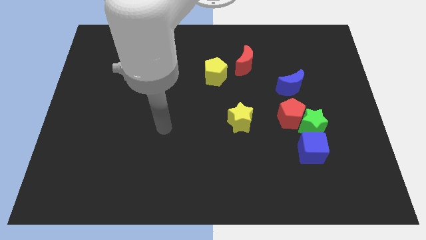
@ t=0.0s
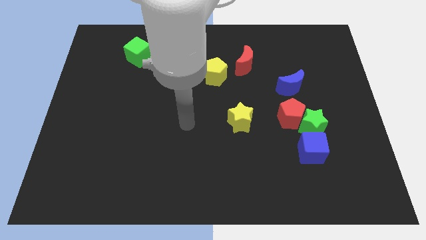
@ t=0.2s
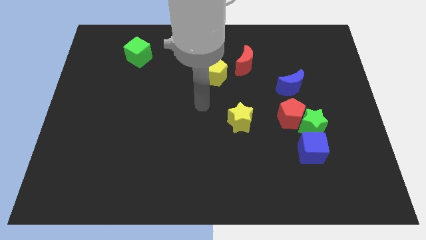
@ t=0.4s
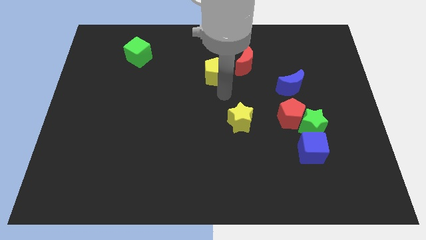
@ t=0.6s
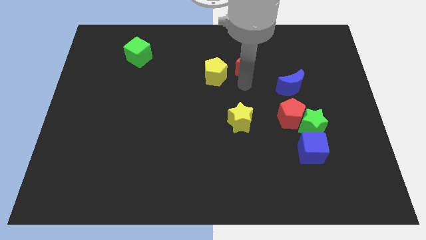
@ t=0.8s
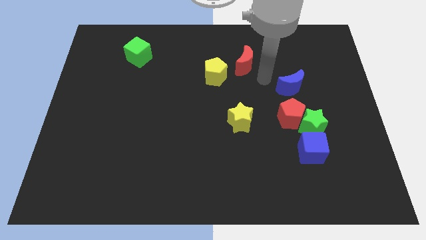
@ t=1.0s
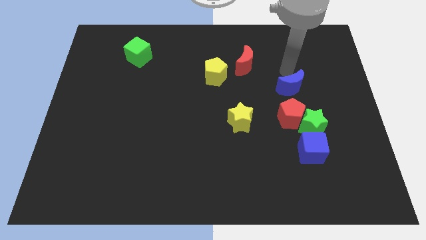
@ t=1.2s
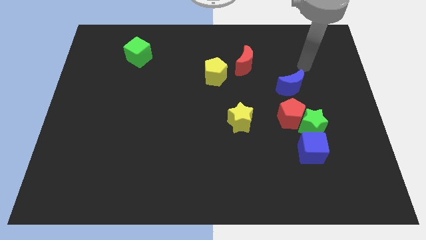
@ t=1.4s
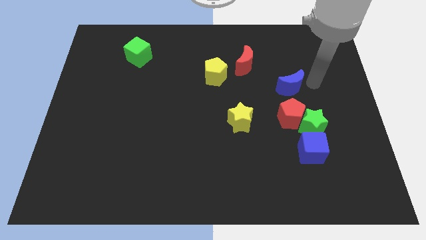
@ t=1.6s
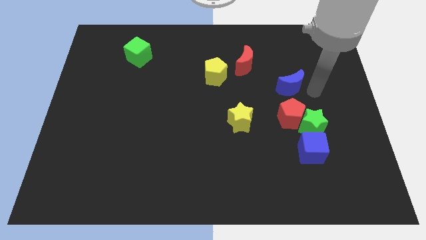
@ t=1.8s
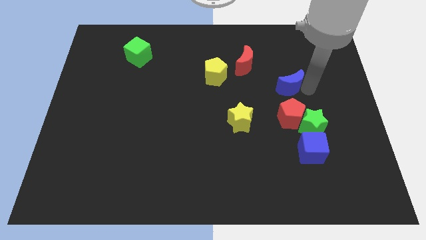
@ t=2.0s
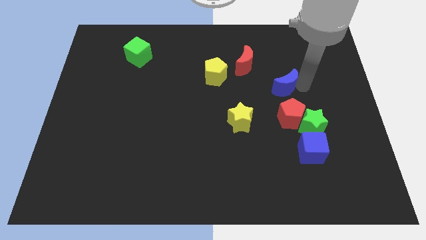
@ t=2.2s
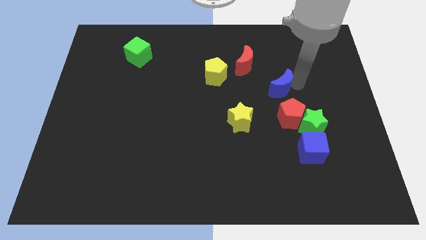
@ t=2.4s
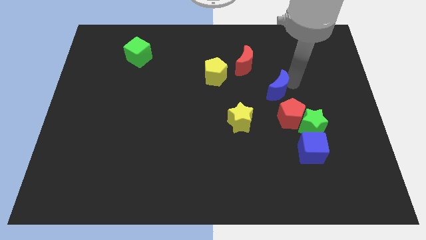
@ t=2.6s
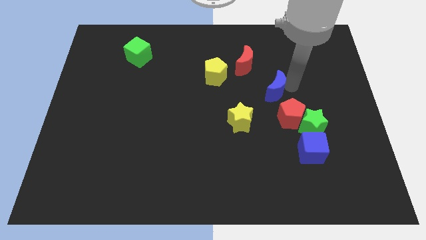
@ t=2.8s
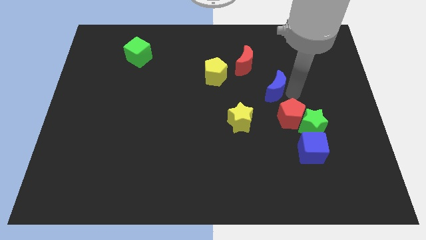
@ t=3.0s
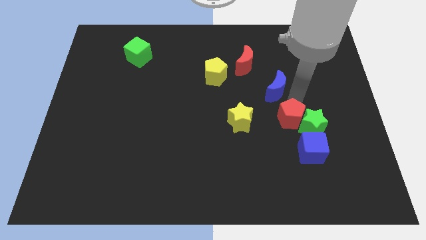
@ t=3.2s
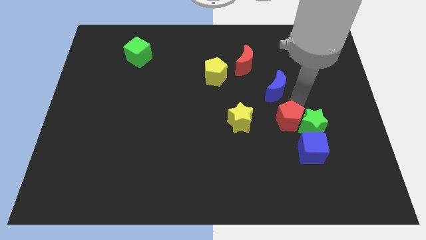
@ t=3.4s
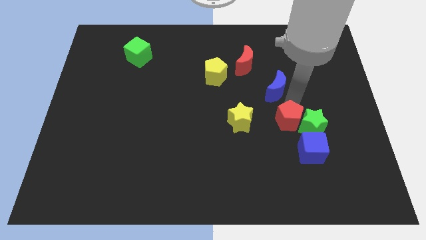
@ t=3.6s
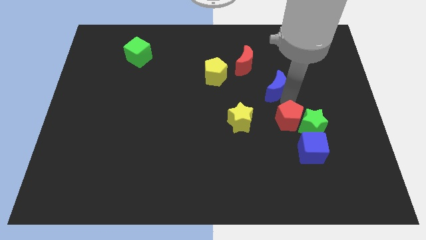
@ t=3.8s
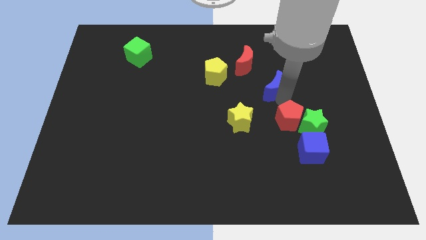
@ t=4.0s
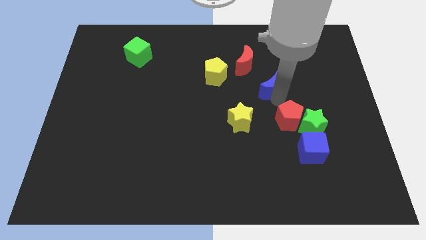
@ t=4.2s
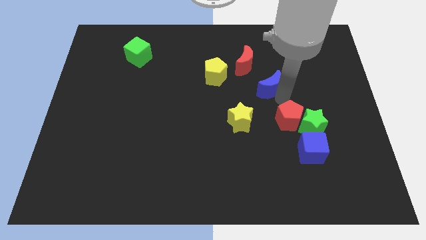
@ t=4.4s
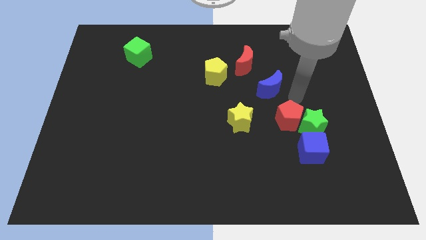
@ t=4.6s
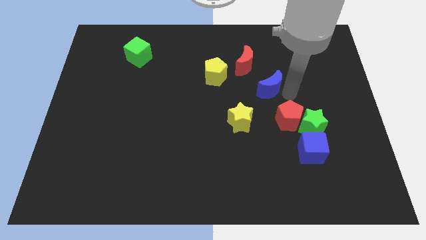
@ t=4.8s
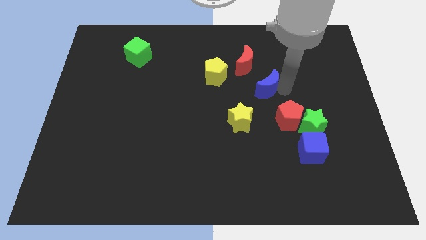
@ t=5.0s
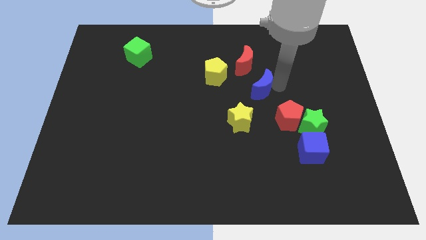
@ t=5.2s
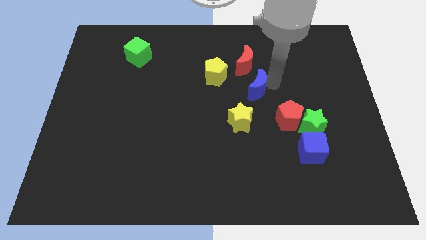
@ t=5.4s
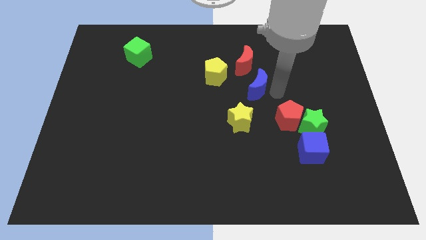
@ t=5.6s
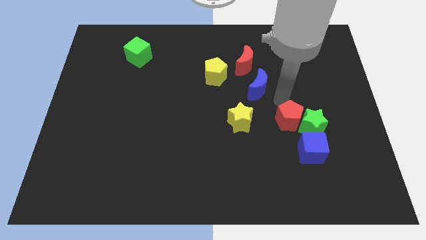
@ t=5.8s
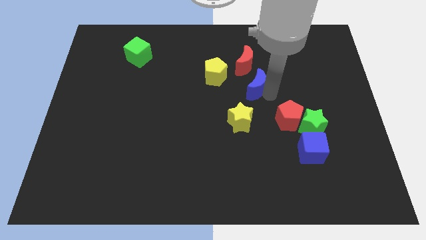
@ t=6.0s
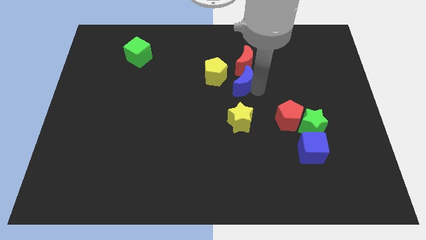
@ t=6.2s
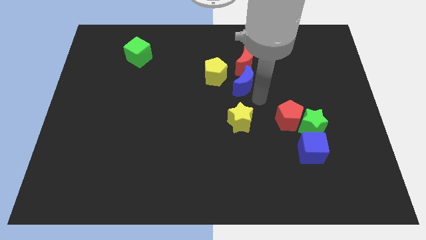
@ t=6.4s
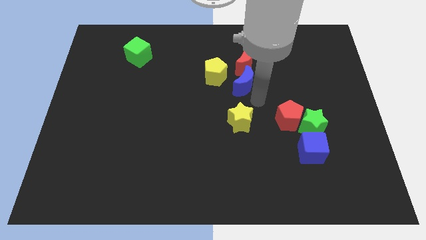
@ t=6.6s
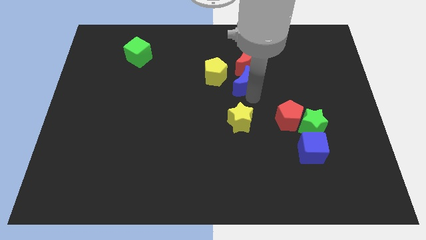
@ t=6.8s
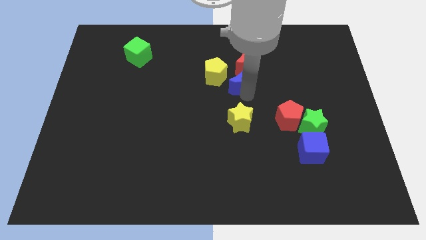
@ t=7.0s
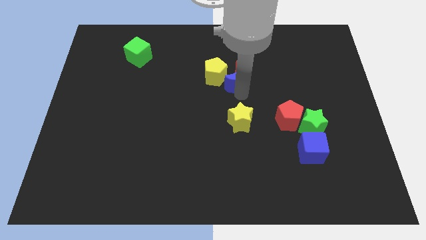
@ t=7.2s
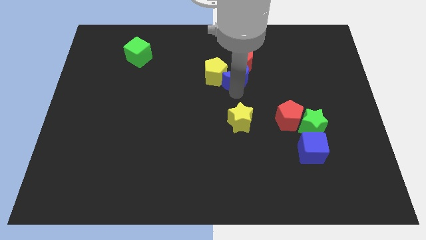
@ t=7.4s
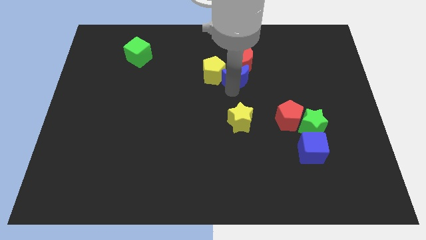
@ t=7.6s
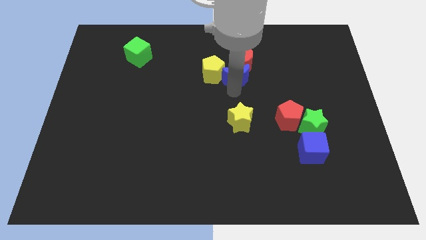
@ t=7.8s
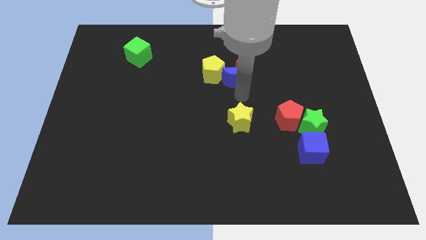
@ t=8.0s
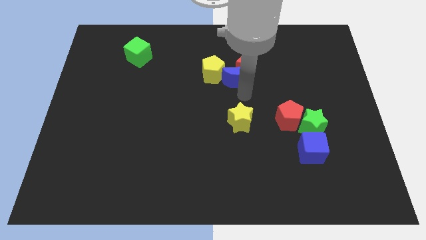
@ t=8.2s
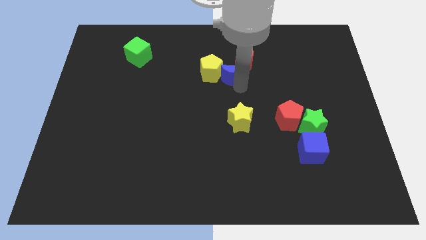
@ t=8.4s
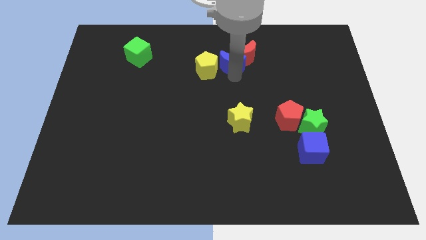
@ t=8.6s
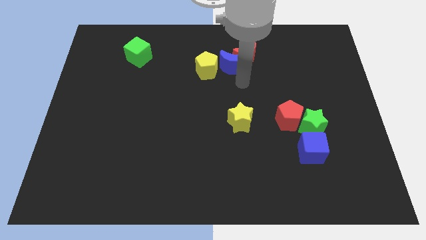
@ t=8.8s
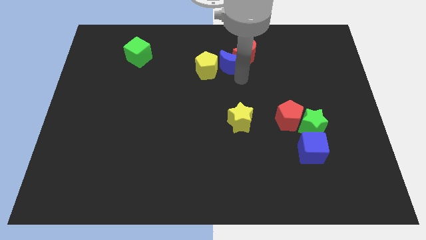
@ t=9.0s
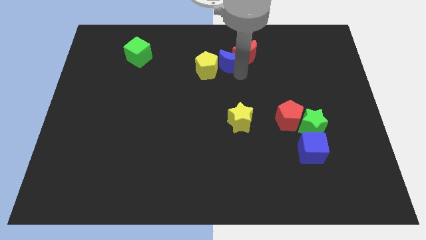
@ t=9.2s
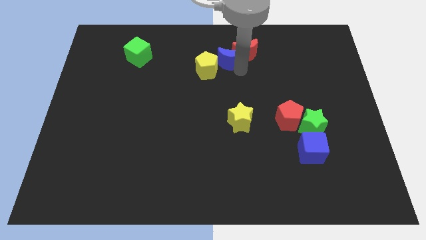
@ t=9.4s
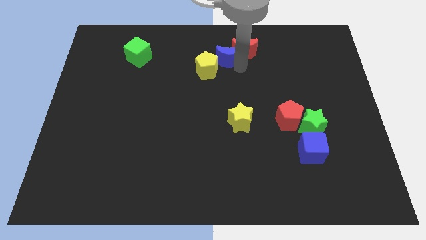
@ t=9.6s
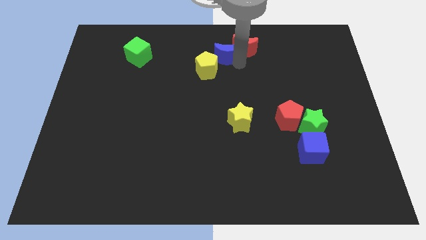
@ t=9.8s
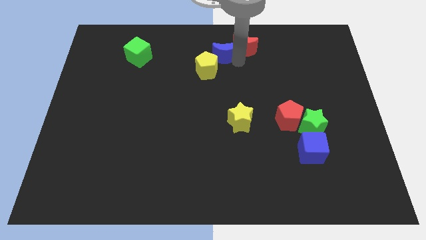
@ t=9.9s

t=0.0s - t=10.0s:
slide the blue moon to the top side

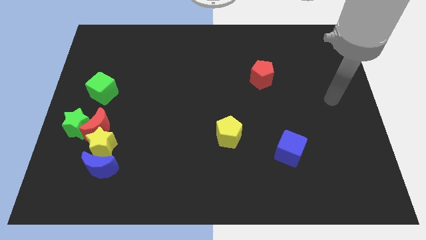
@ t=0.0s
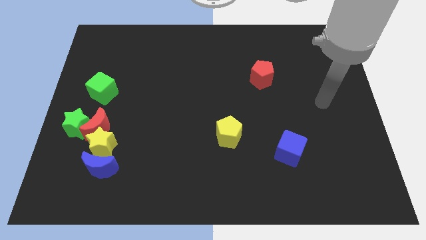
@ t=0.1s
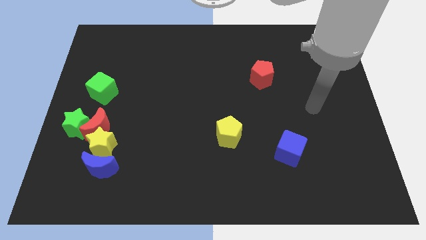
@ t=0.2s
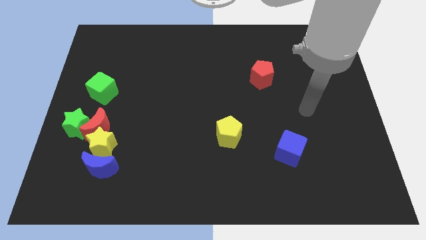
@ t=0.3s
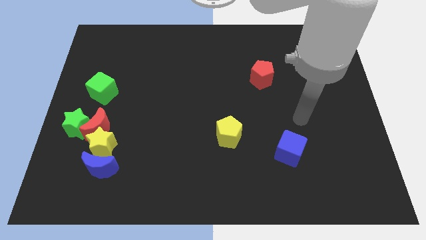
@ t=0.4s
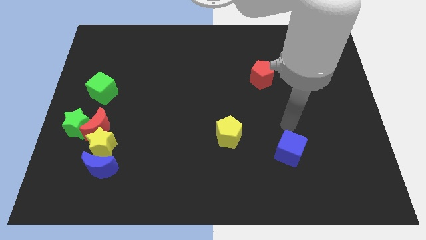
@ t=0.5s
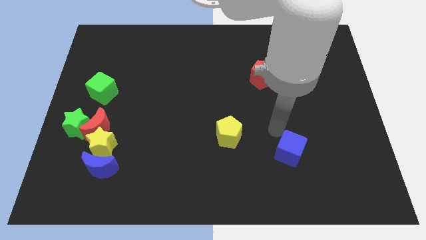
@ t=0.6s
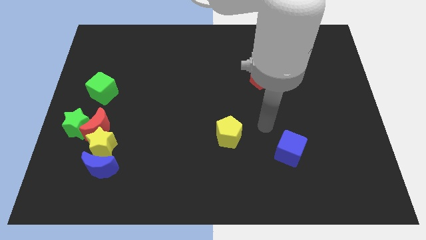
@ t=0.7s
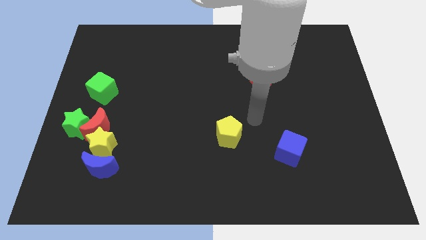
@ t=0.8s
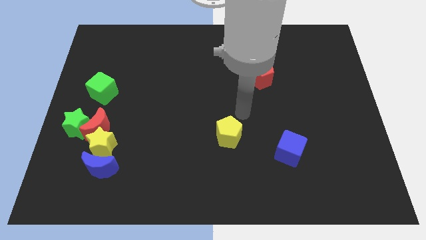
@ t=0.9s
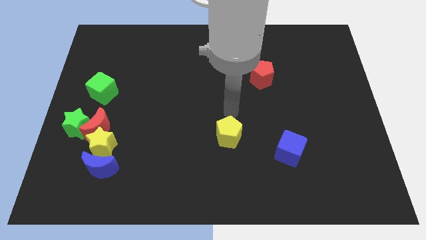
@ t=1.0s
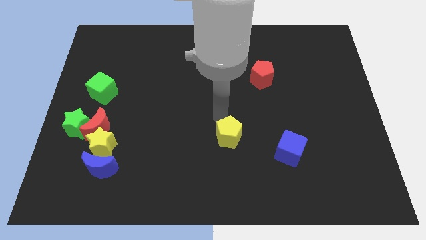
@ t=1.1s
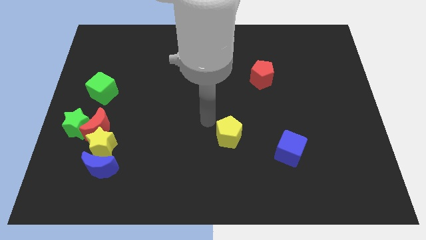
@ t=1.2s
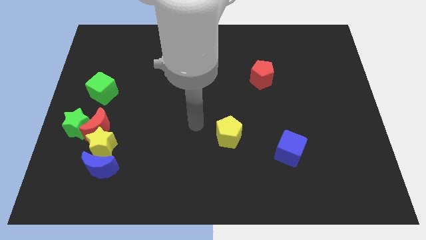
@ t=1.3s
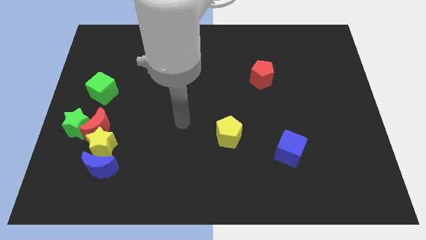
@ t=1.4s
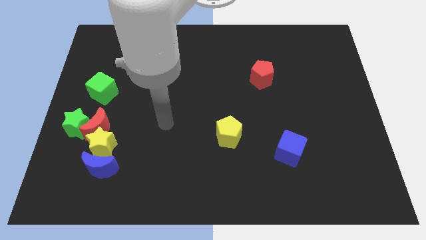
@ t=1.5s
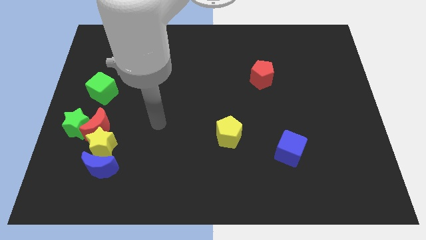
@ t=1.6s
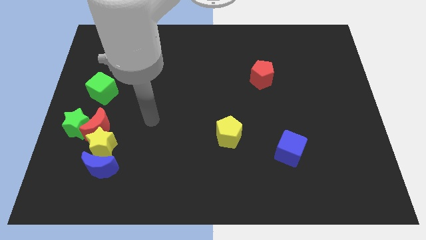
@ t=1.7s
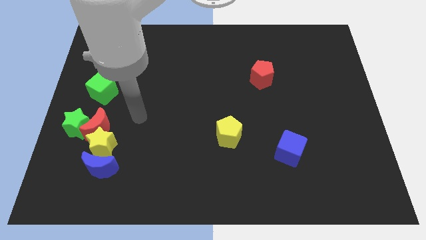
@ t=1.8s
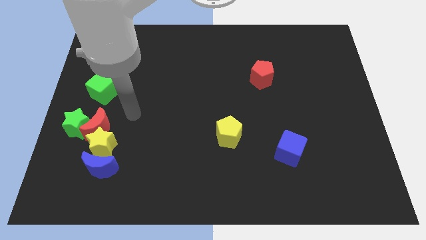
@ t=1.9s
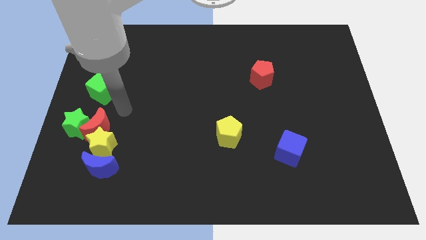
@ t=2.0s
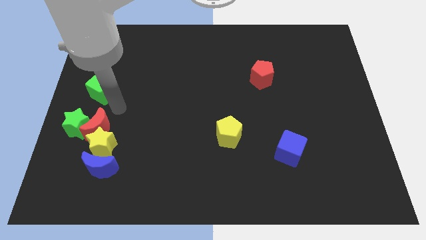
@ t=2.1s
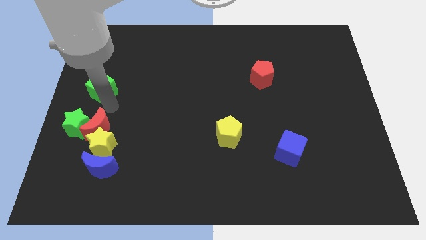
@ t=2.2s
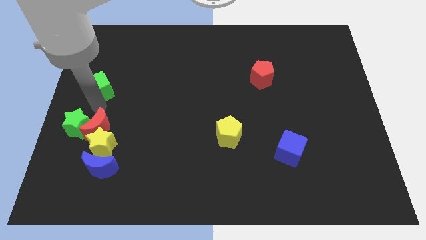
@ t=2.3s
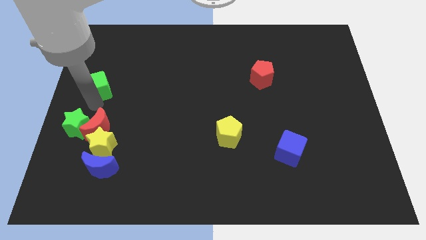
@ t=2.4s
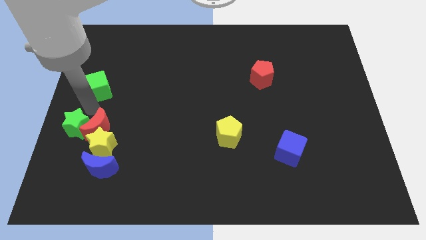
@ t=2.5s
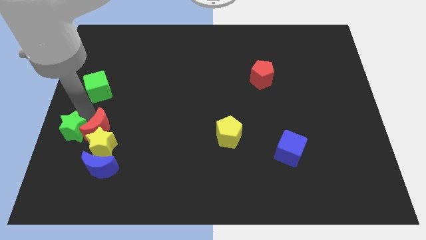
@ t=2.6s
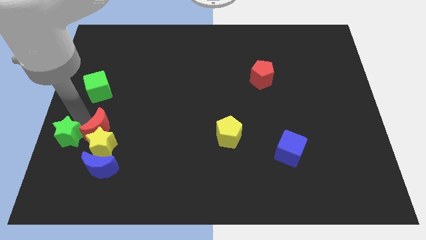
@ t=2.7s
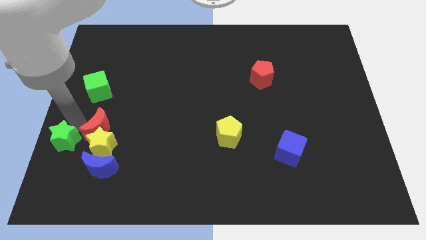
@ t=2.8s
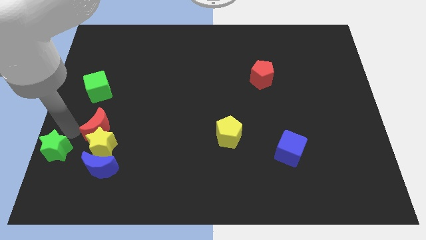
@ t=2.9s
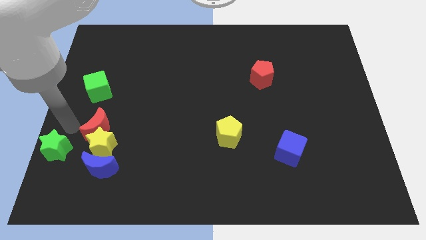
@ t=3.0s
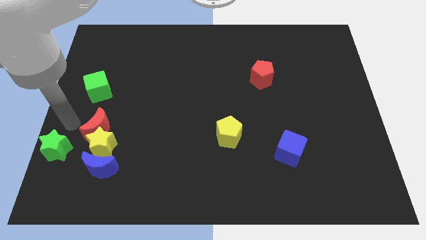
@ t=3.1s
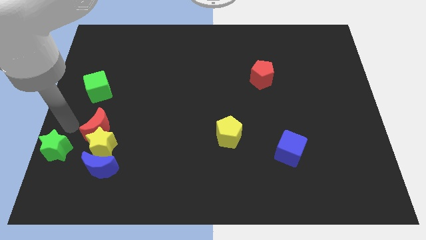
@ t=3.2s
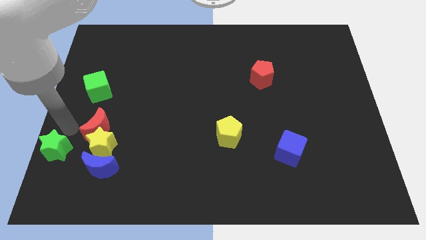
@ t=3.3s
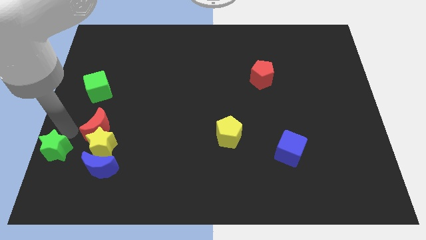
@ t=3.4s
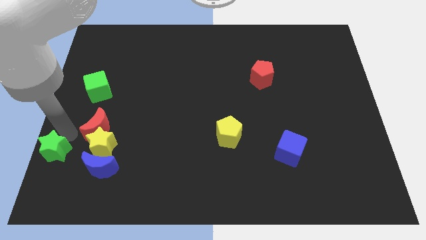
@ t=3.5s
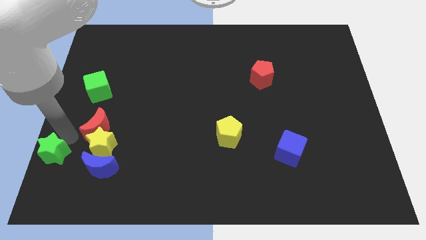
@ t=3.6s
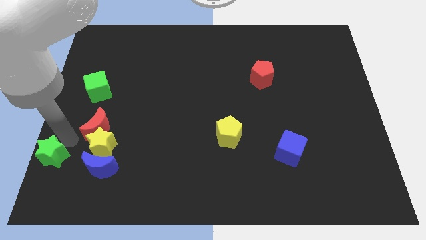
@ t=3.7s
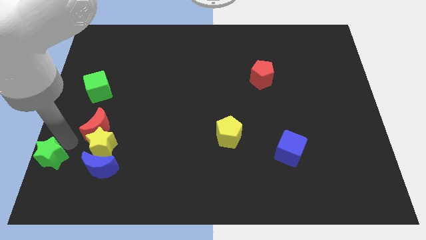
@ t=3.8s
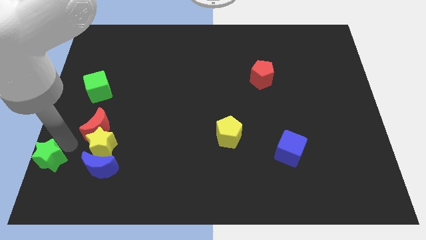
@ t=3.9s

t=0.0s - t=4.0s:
move the green star to the lower left corner
